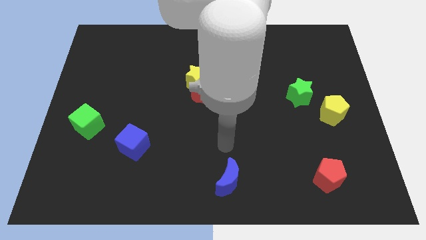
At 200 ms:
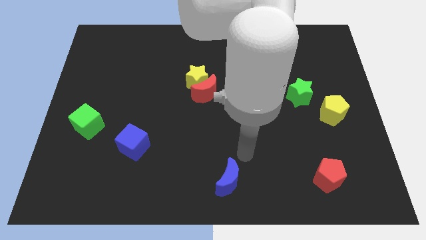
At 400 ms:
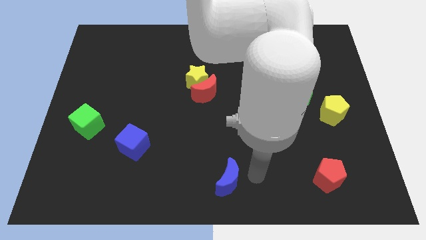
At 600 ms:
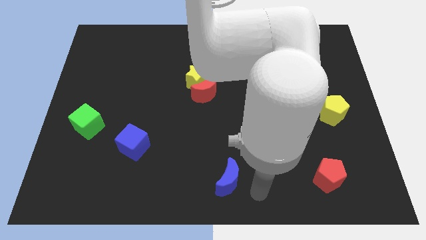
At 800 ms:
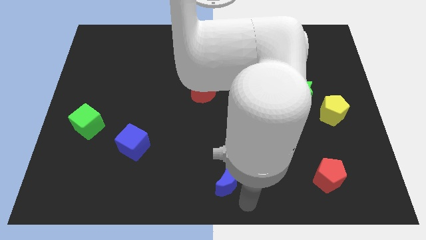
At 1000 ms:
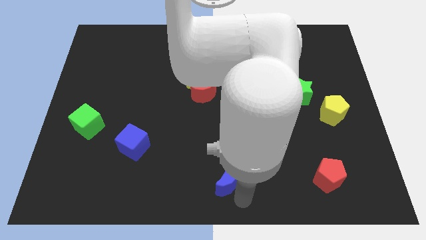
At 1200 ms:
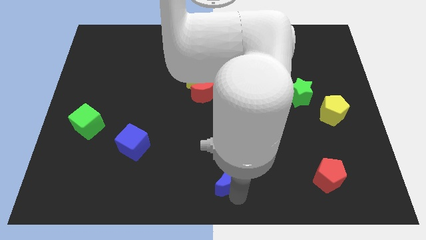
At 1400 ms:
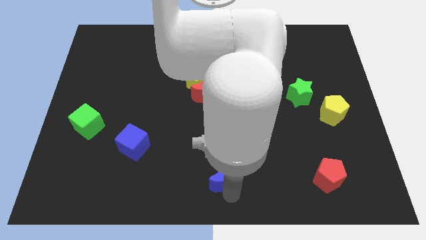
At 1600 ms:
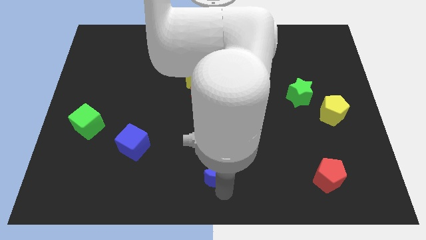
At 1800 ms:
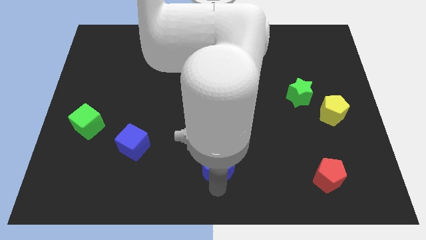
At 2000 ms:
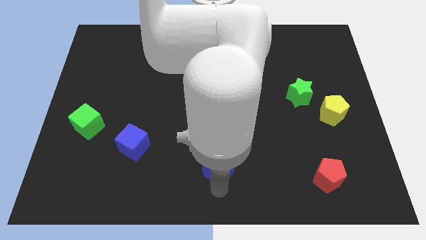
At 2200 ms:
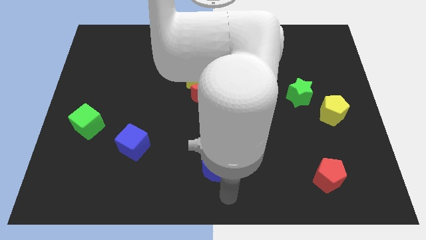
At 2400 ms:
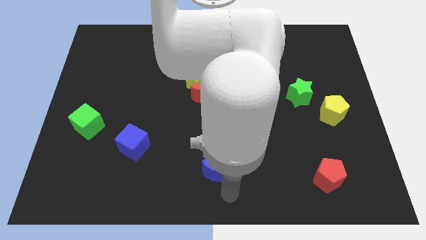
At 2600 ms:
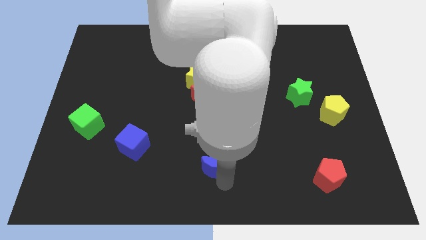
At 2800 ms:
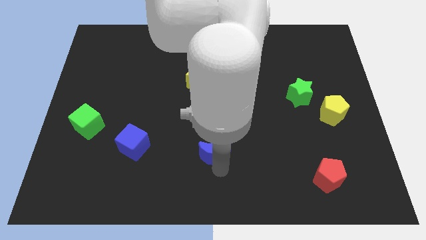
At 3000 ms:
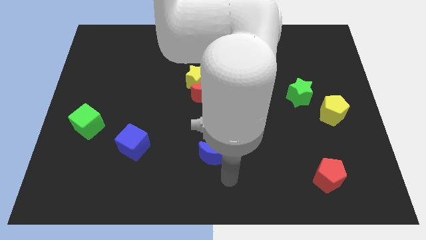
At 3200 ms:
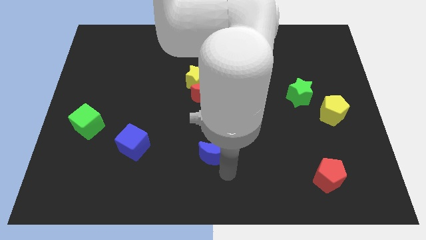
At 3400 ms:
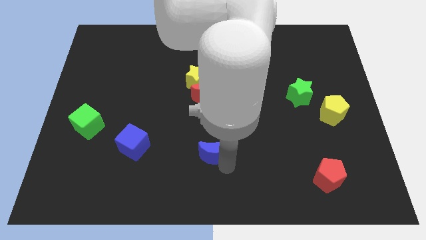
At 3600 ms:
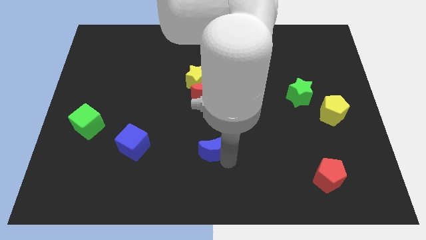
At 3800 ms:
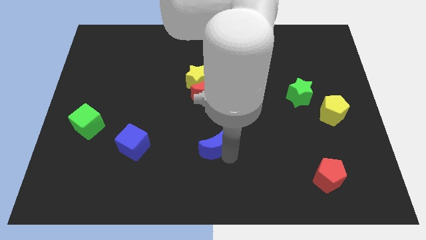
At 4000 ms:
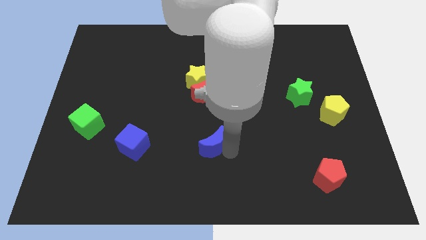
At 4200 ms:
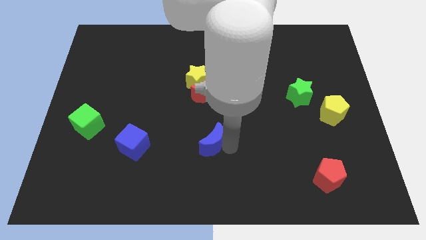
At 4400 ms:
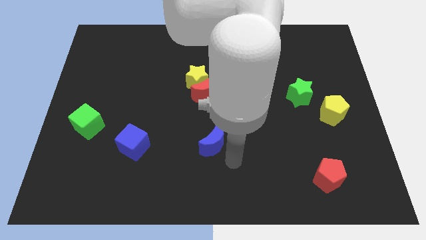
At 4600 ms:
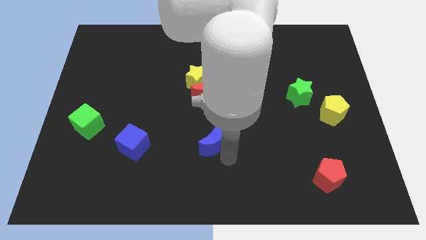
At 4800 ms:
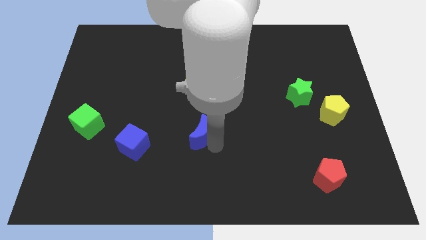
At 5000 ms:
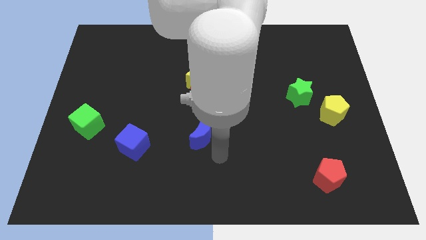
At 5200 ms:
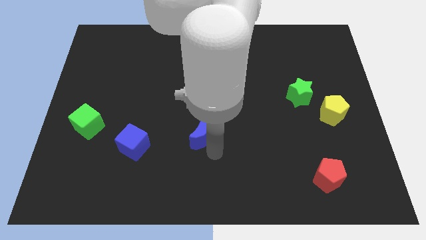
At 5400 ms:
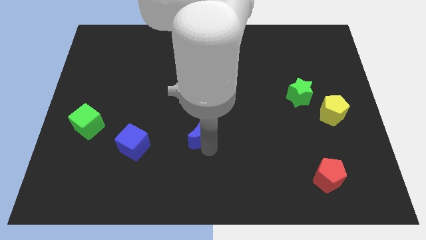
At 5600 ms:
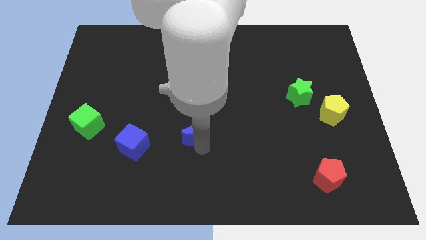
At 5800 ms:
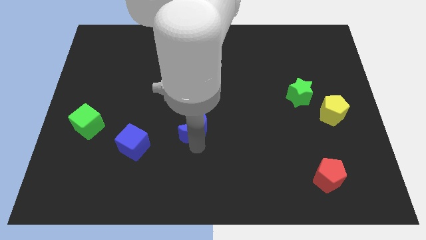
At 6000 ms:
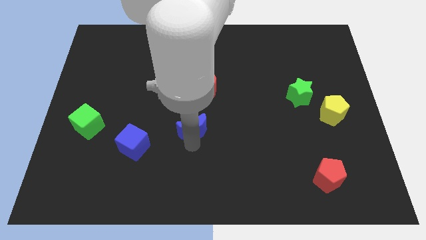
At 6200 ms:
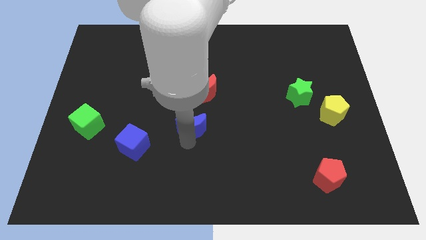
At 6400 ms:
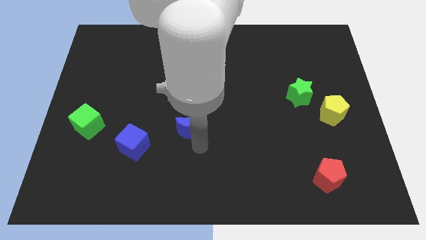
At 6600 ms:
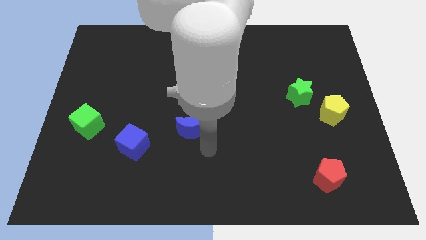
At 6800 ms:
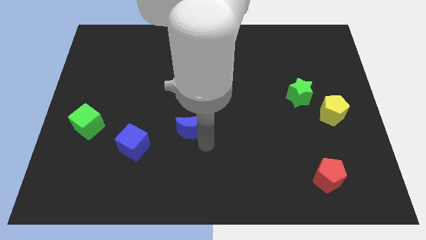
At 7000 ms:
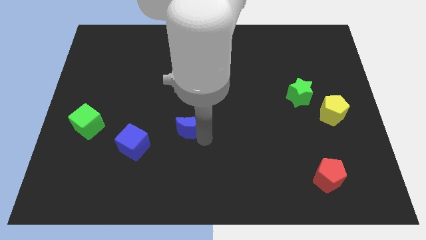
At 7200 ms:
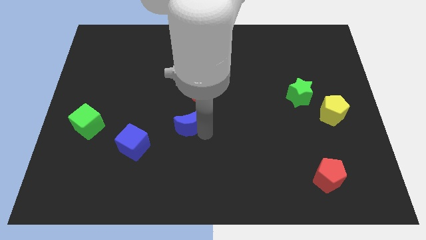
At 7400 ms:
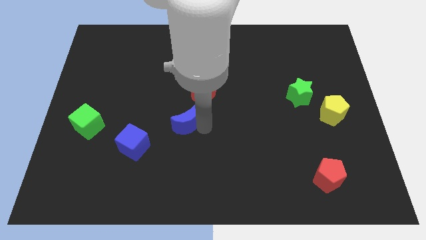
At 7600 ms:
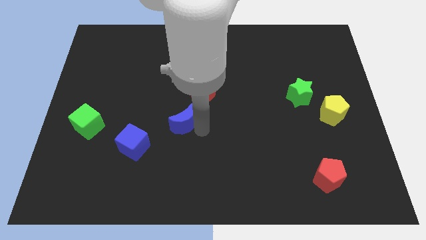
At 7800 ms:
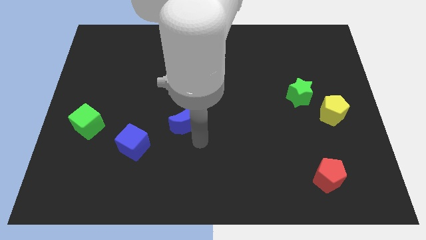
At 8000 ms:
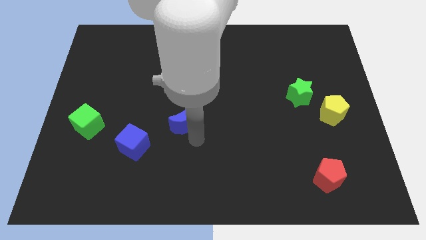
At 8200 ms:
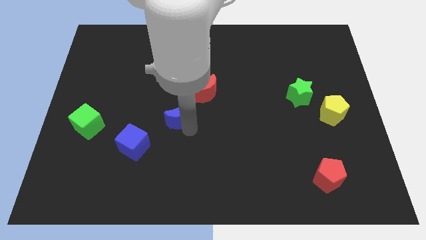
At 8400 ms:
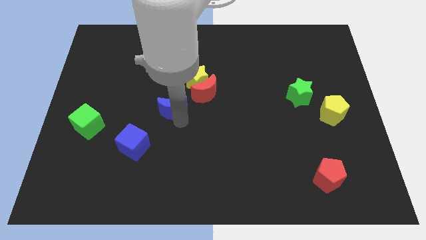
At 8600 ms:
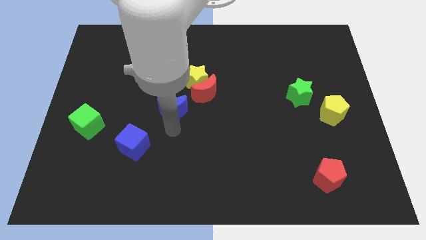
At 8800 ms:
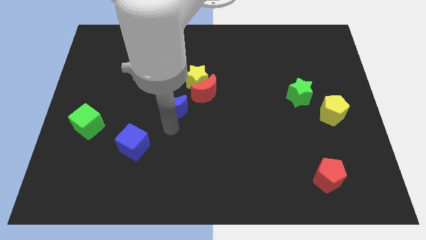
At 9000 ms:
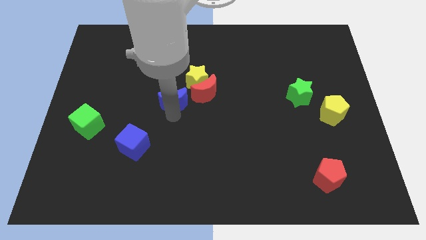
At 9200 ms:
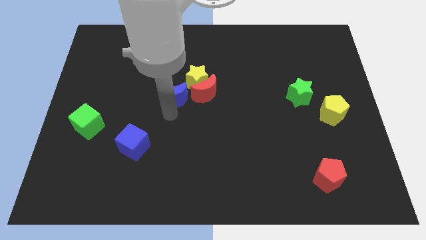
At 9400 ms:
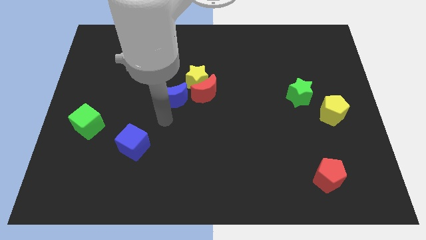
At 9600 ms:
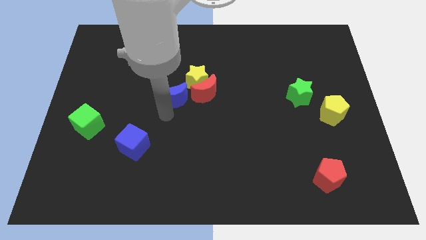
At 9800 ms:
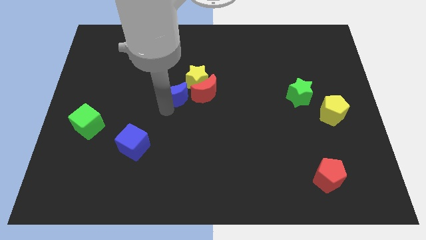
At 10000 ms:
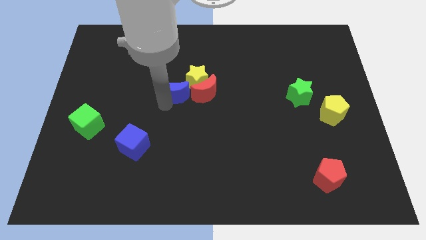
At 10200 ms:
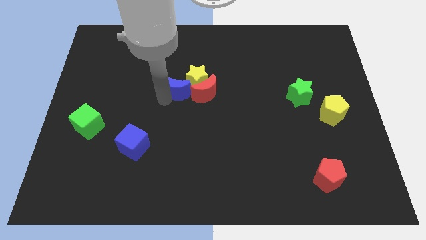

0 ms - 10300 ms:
push the blue moon to the top left side of the red moon

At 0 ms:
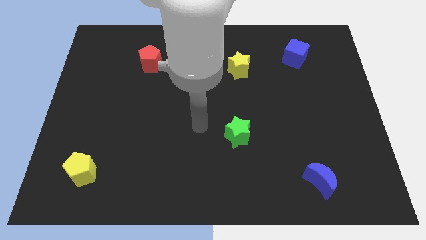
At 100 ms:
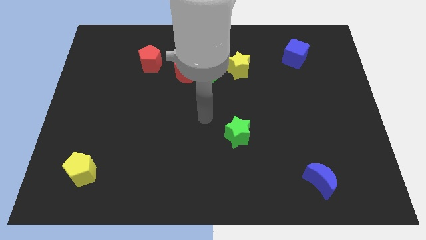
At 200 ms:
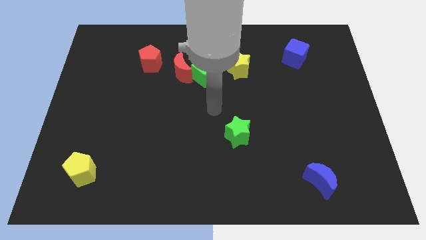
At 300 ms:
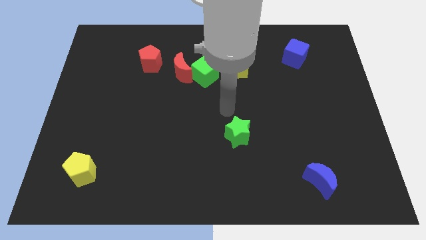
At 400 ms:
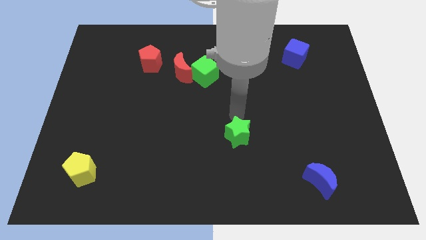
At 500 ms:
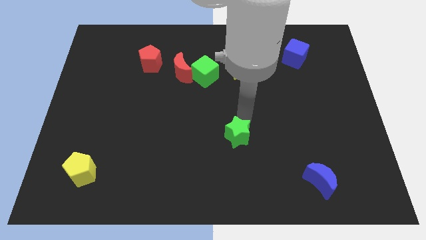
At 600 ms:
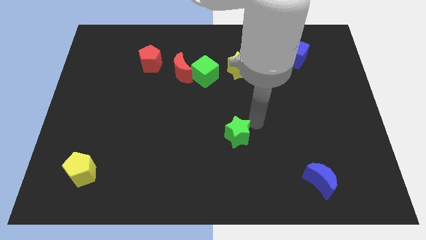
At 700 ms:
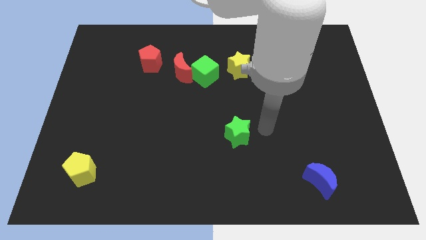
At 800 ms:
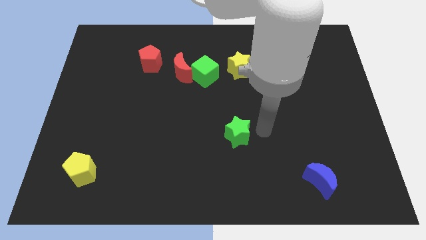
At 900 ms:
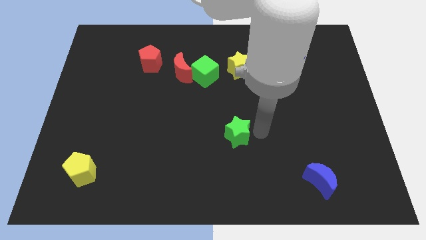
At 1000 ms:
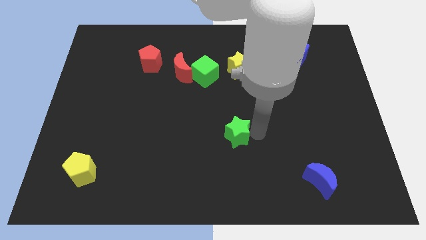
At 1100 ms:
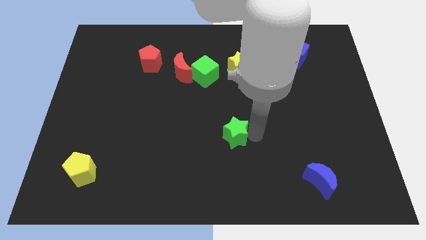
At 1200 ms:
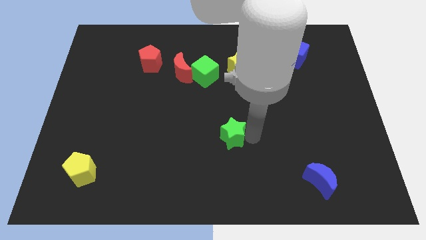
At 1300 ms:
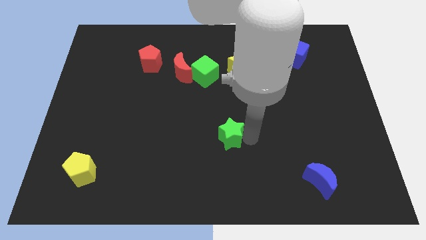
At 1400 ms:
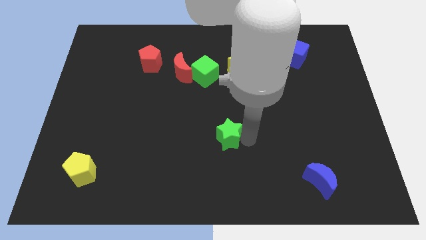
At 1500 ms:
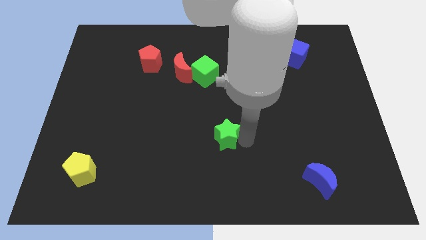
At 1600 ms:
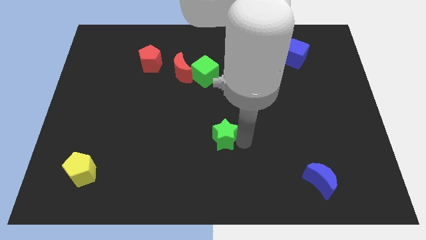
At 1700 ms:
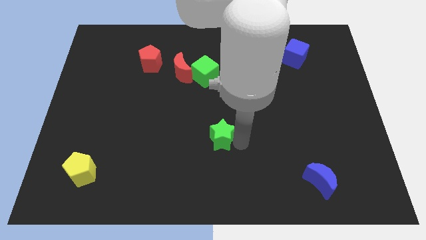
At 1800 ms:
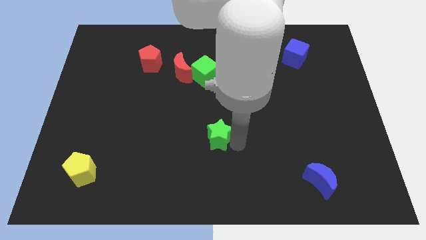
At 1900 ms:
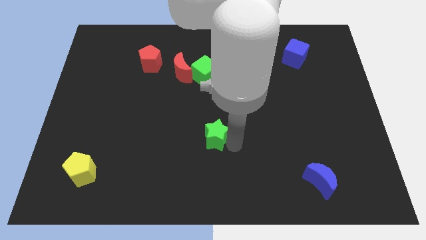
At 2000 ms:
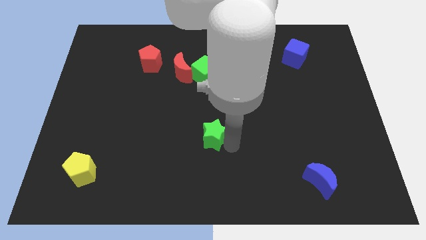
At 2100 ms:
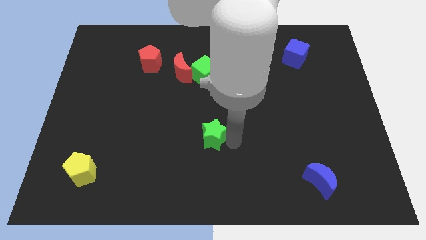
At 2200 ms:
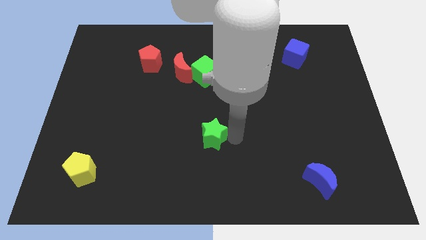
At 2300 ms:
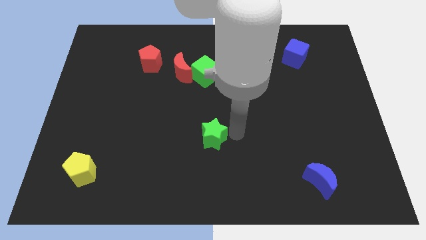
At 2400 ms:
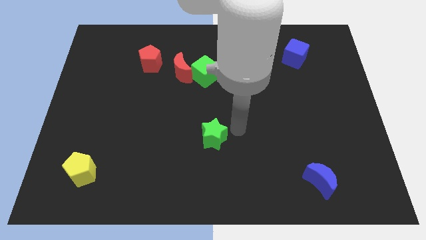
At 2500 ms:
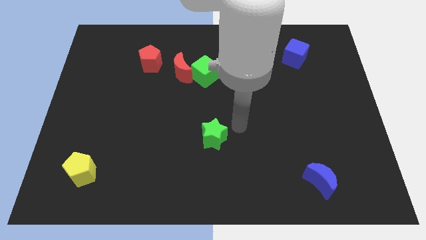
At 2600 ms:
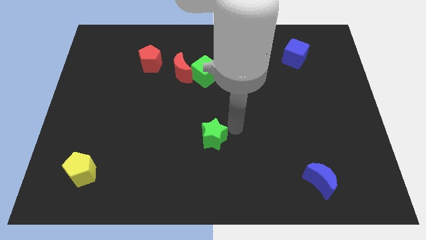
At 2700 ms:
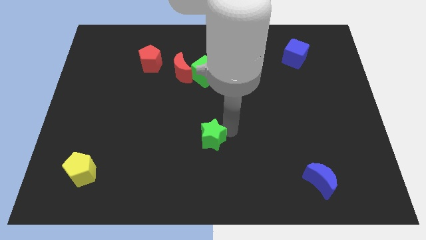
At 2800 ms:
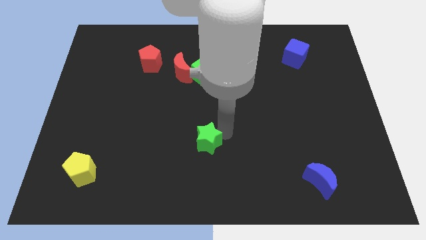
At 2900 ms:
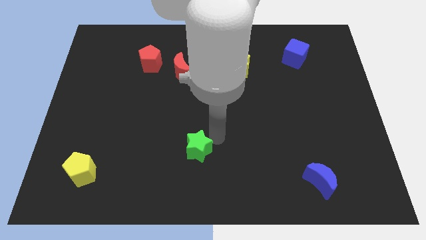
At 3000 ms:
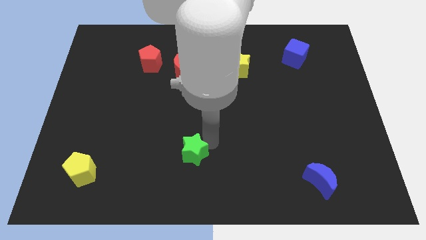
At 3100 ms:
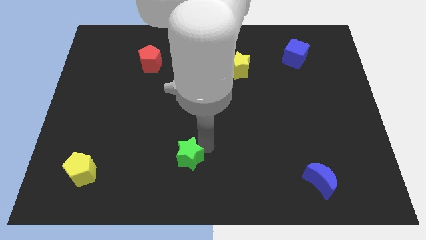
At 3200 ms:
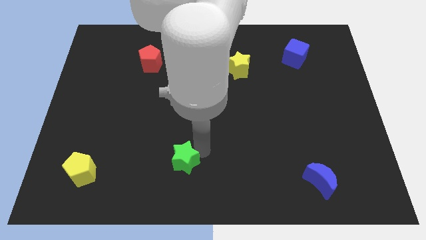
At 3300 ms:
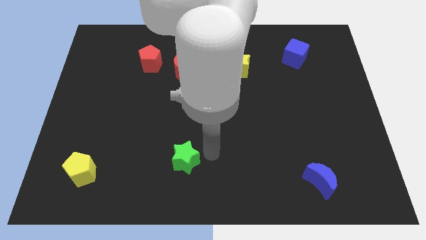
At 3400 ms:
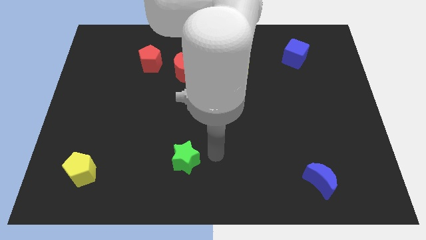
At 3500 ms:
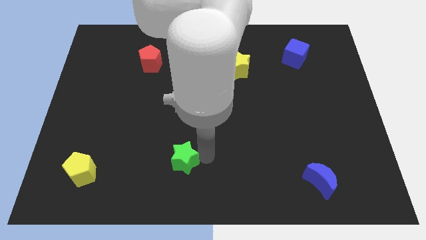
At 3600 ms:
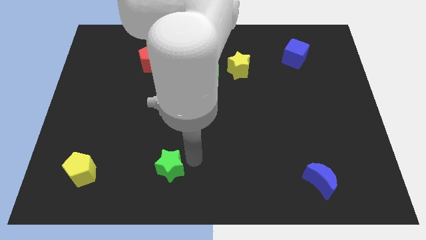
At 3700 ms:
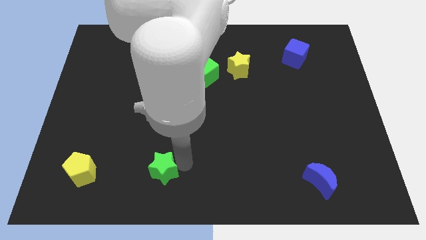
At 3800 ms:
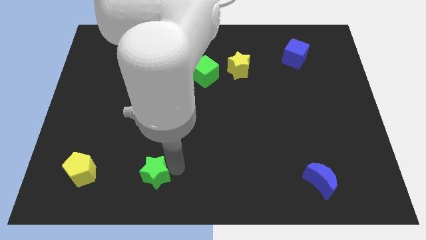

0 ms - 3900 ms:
put the green star to the right side of the yellow pentagon
